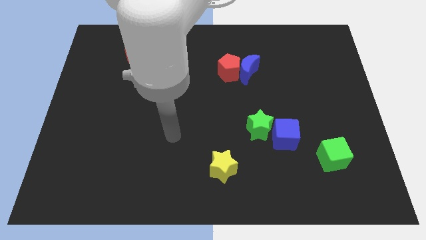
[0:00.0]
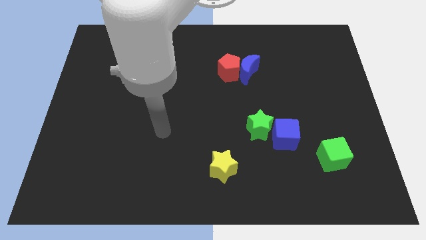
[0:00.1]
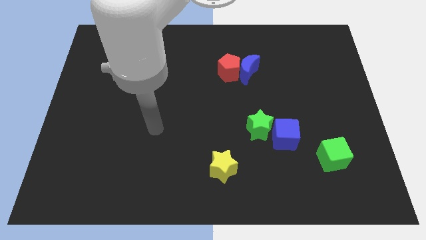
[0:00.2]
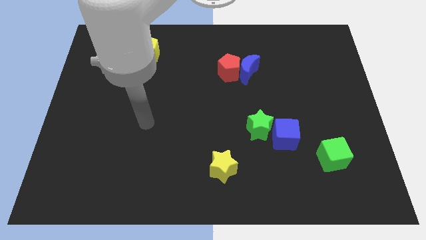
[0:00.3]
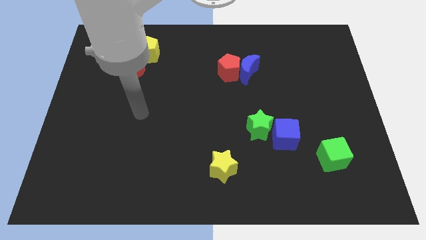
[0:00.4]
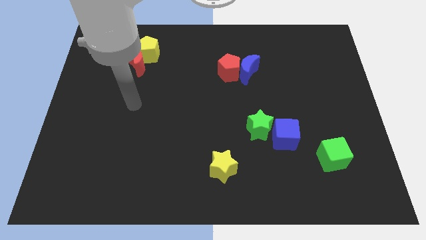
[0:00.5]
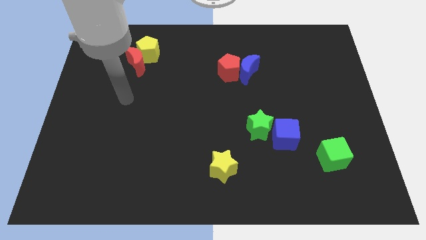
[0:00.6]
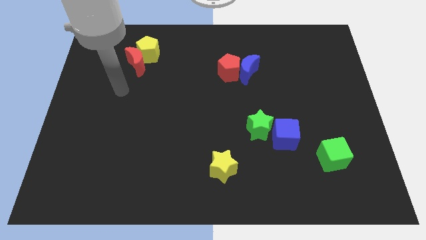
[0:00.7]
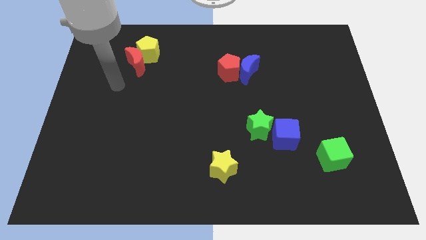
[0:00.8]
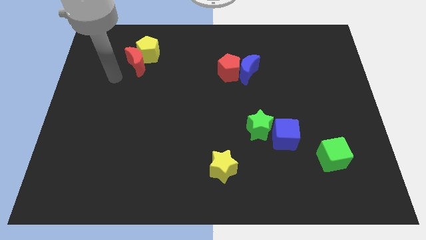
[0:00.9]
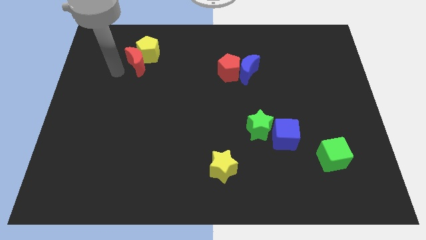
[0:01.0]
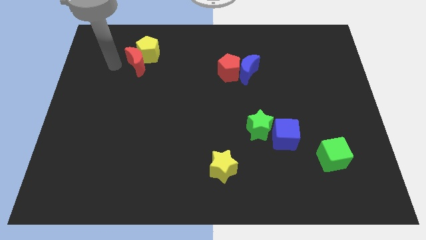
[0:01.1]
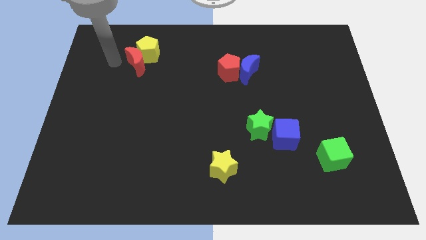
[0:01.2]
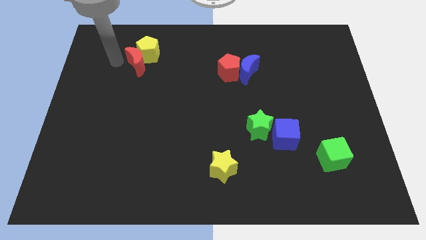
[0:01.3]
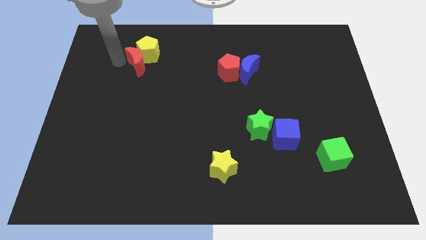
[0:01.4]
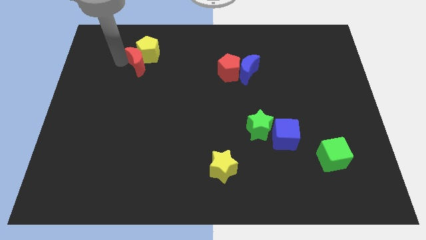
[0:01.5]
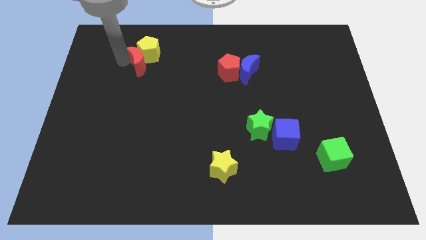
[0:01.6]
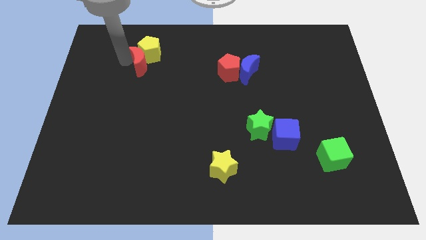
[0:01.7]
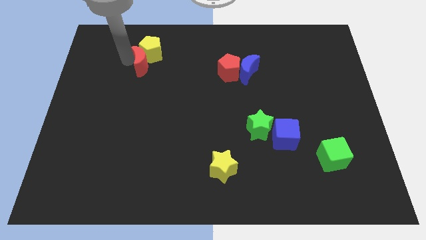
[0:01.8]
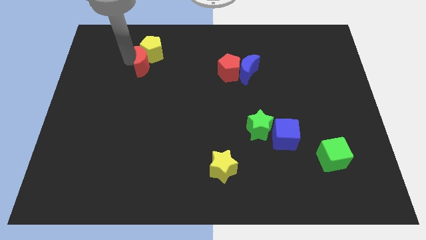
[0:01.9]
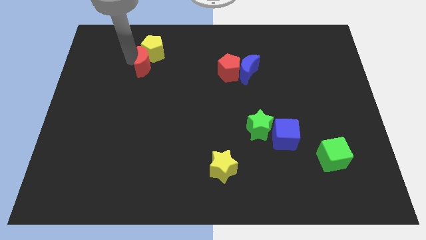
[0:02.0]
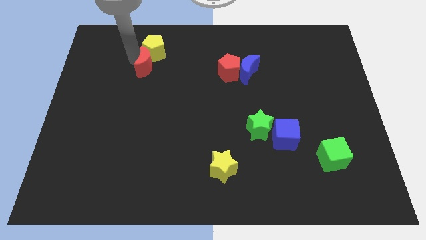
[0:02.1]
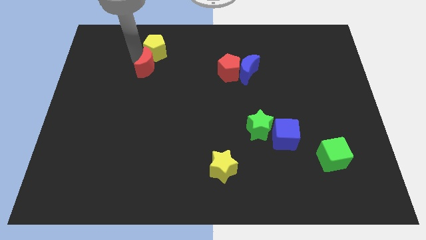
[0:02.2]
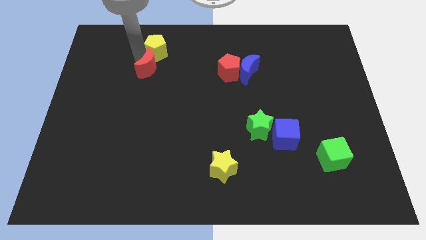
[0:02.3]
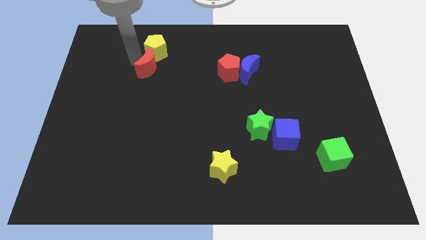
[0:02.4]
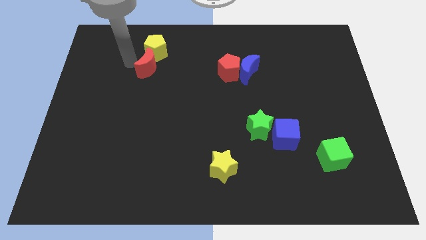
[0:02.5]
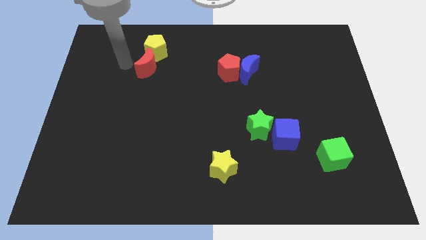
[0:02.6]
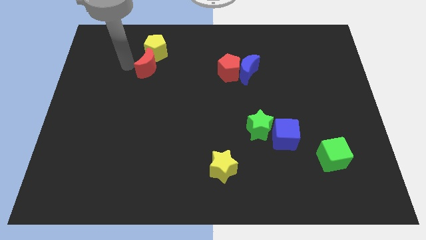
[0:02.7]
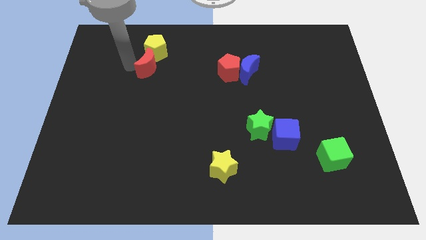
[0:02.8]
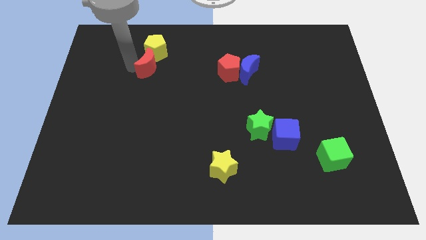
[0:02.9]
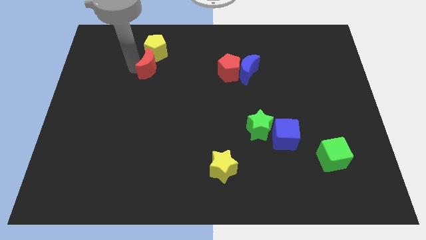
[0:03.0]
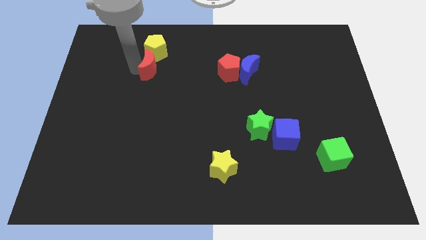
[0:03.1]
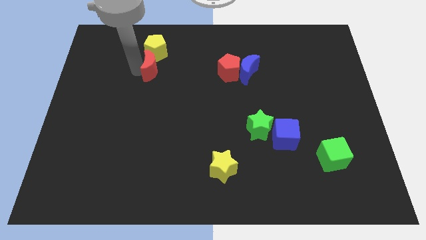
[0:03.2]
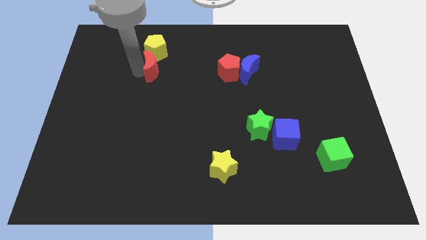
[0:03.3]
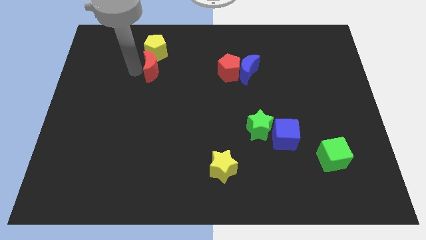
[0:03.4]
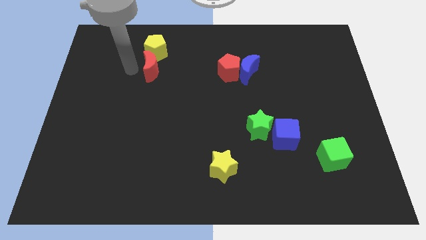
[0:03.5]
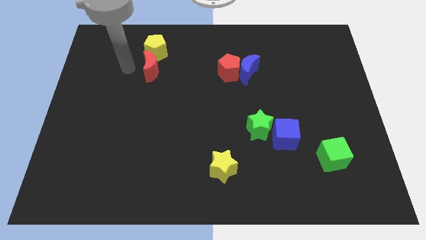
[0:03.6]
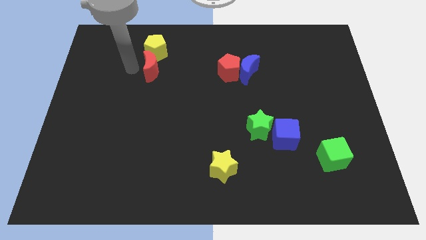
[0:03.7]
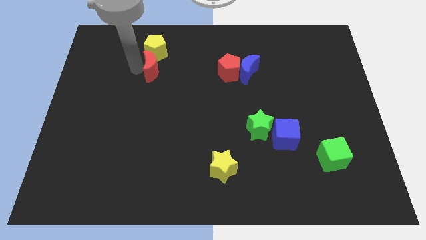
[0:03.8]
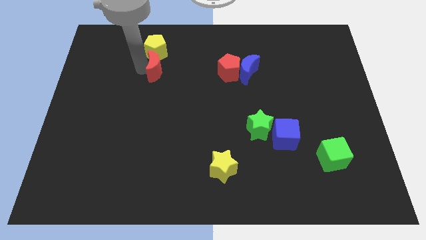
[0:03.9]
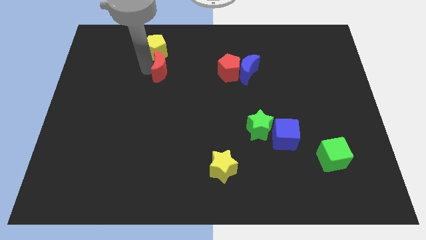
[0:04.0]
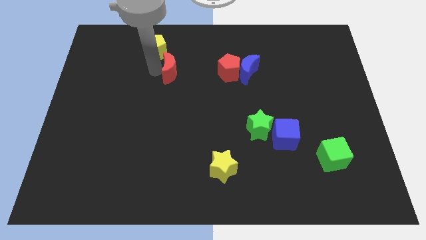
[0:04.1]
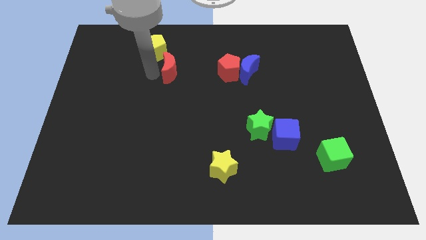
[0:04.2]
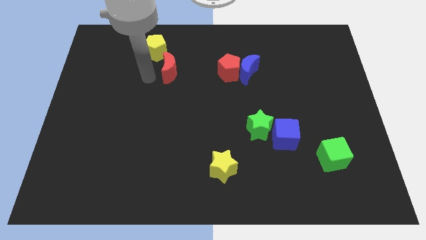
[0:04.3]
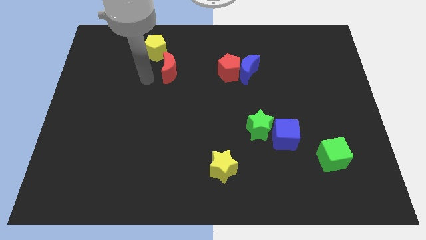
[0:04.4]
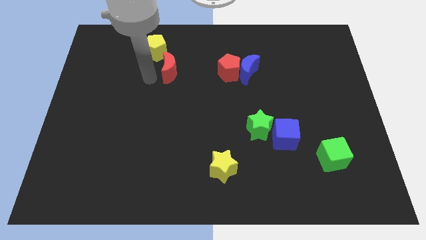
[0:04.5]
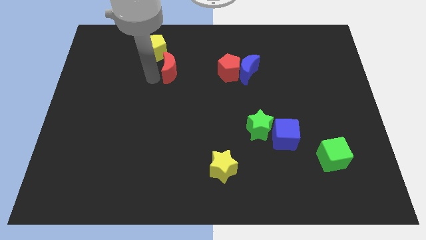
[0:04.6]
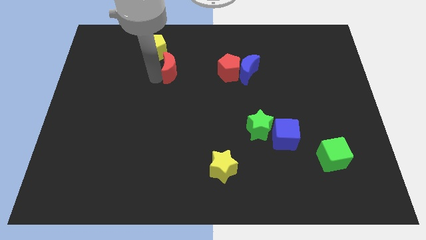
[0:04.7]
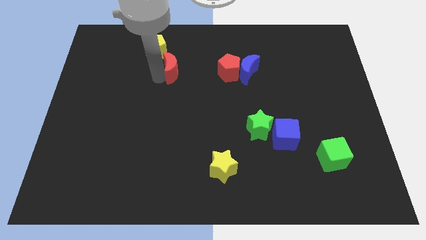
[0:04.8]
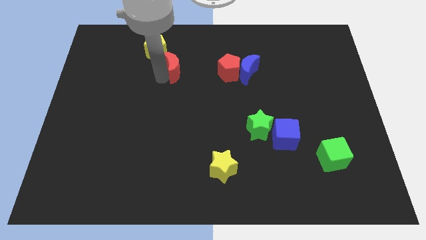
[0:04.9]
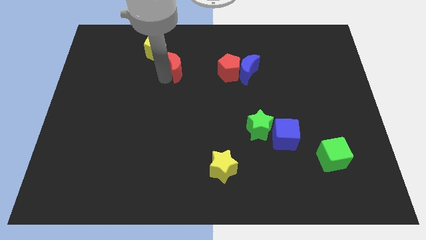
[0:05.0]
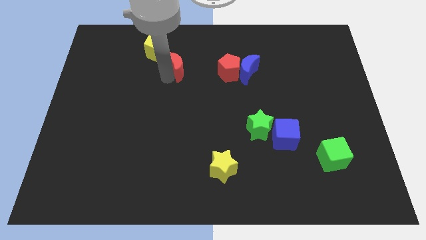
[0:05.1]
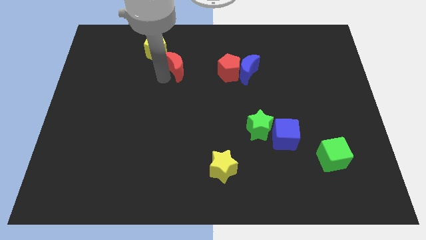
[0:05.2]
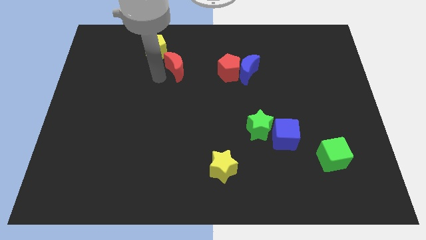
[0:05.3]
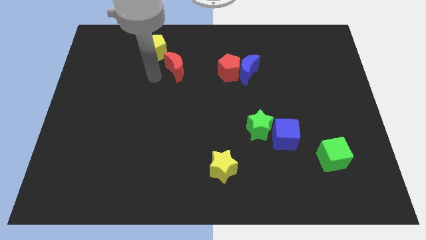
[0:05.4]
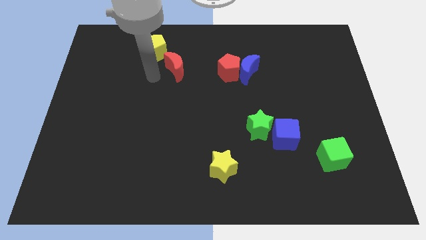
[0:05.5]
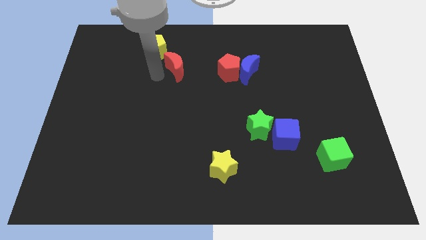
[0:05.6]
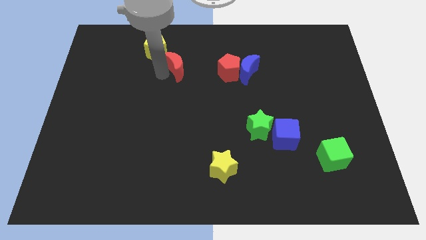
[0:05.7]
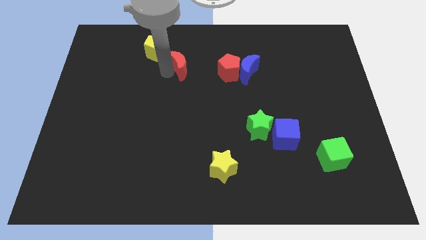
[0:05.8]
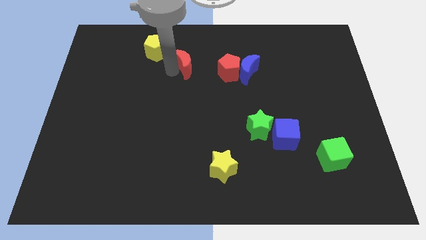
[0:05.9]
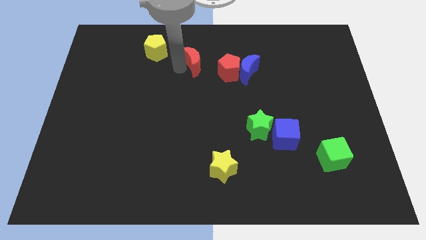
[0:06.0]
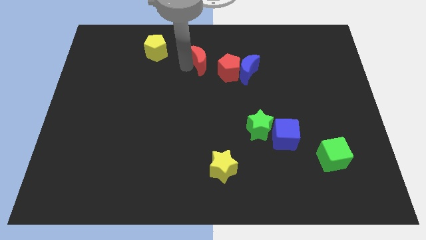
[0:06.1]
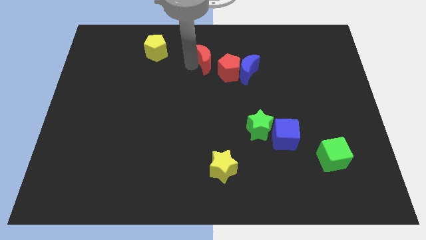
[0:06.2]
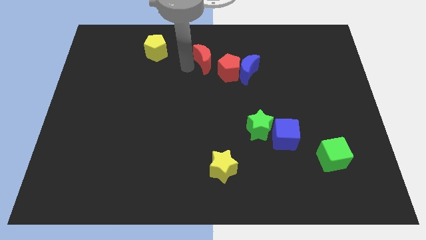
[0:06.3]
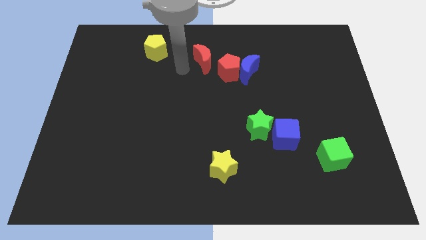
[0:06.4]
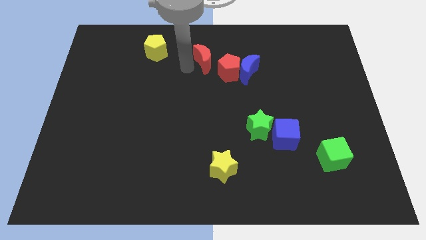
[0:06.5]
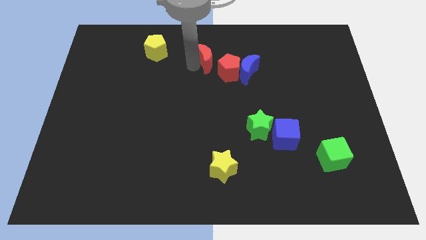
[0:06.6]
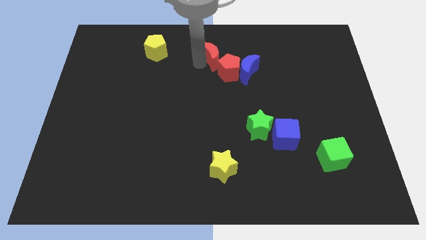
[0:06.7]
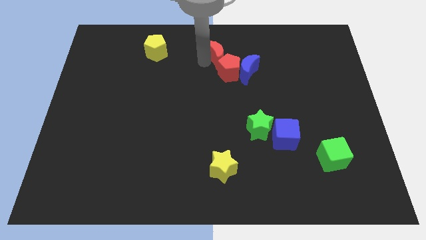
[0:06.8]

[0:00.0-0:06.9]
slide the red moon right

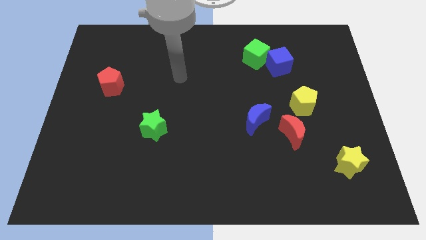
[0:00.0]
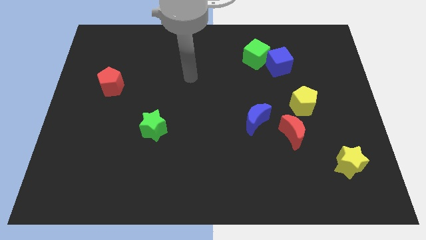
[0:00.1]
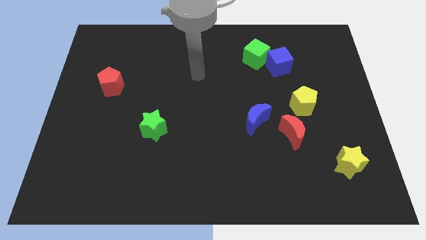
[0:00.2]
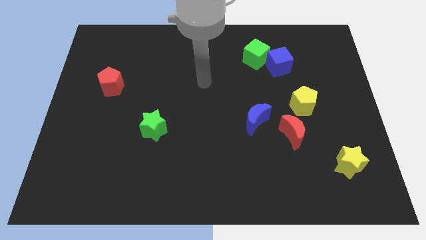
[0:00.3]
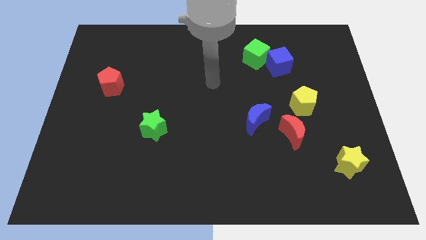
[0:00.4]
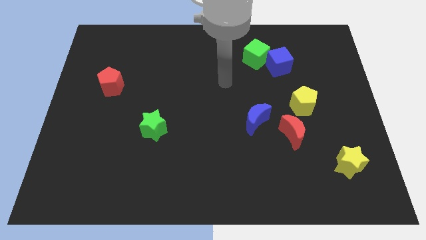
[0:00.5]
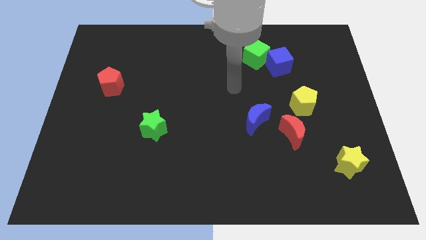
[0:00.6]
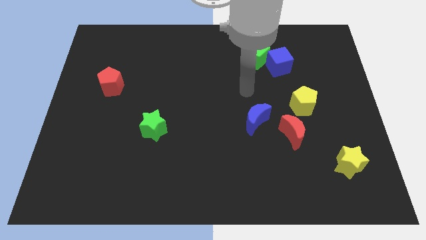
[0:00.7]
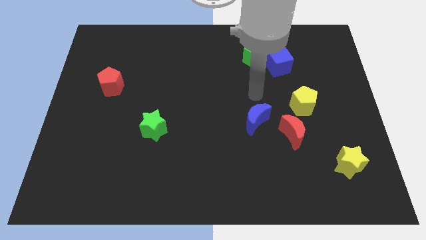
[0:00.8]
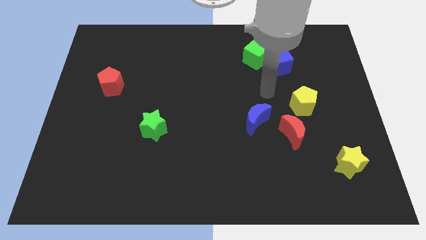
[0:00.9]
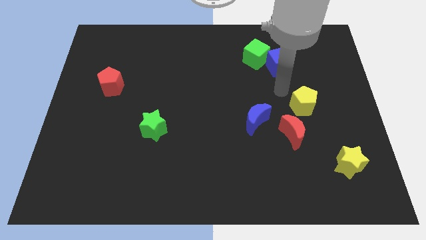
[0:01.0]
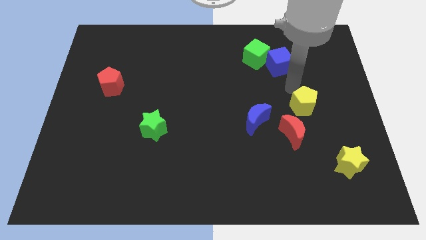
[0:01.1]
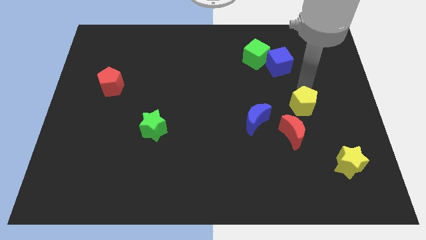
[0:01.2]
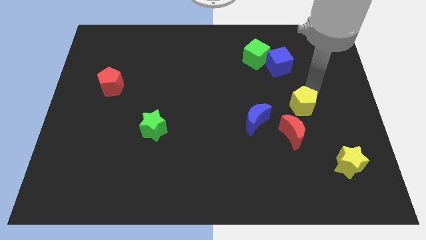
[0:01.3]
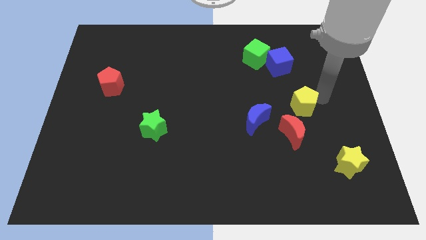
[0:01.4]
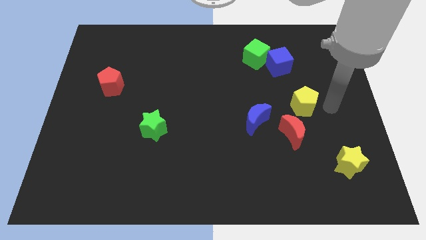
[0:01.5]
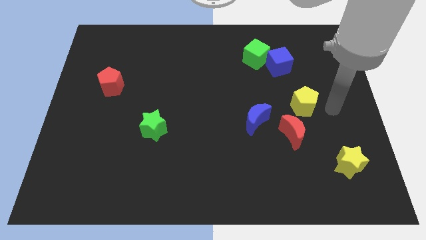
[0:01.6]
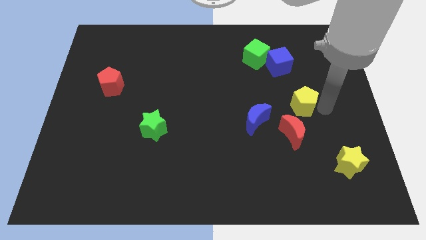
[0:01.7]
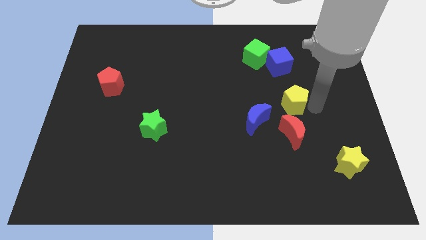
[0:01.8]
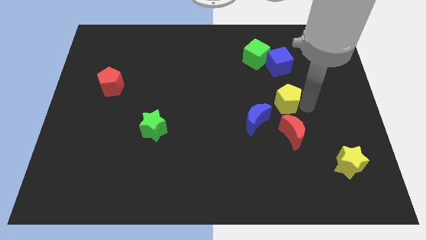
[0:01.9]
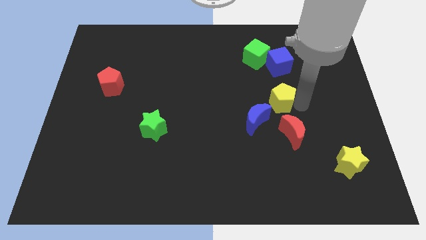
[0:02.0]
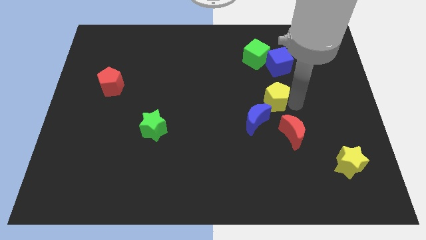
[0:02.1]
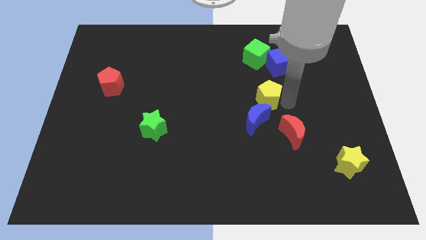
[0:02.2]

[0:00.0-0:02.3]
move the yellow pentagon a little to the left
